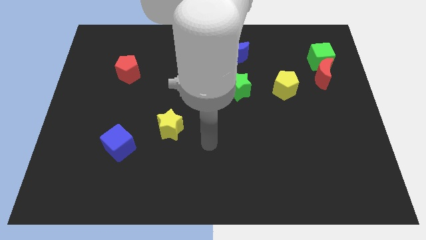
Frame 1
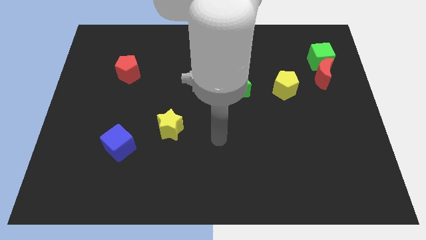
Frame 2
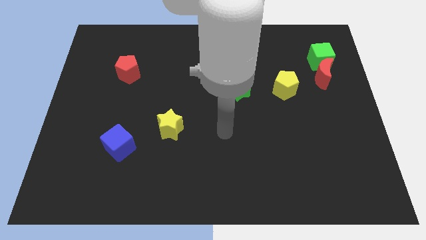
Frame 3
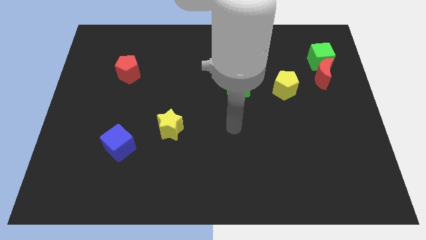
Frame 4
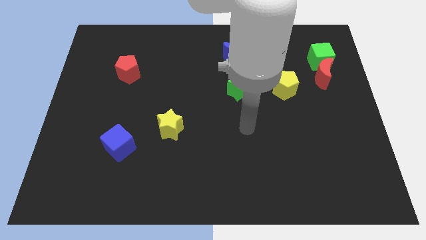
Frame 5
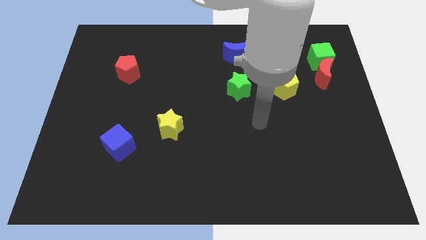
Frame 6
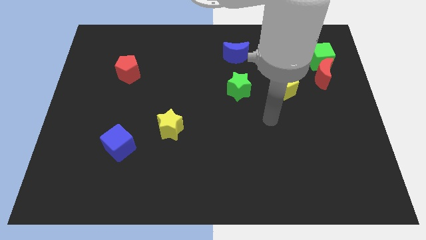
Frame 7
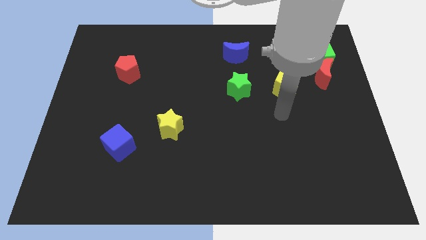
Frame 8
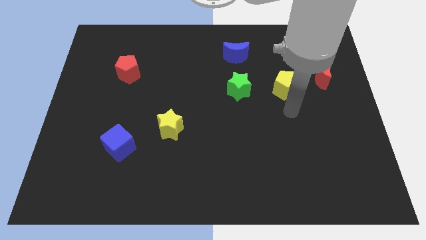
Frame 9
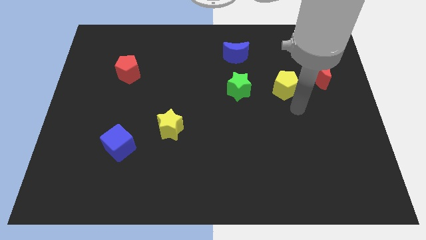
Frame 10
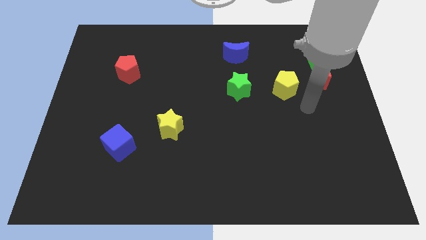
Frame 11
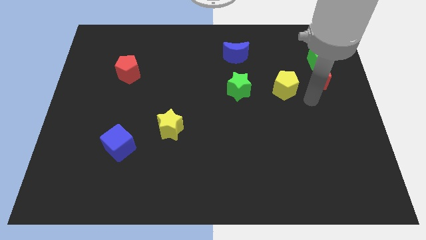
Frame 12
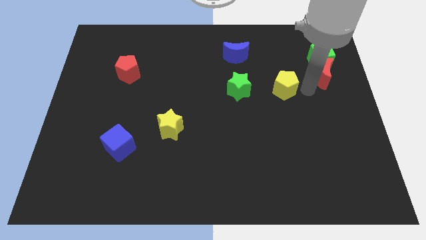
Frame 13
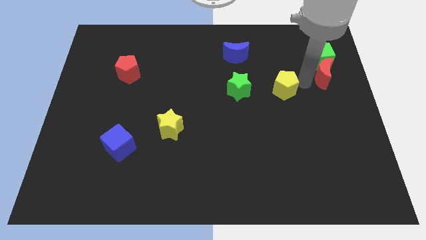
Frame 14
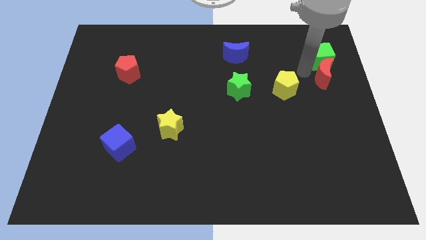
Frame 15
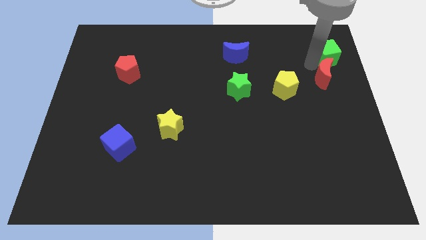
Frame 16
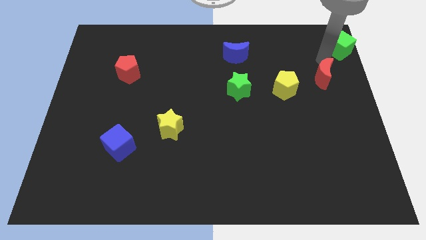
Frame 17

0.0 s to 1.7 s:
move the red moon away from the green cube

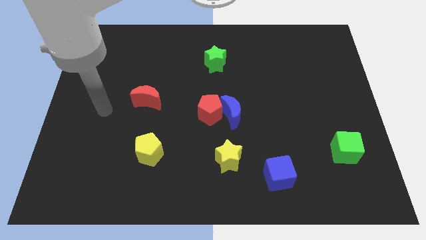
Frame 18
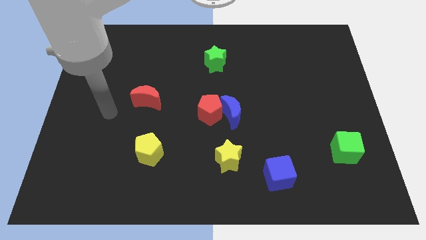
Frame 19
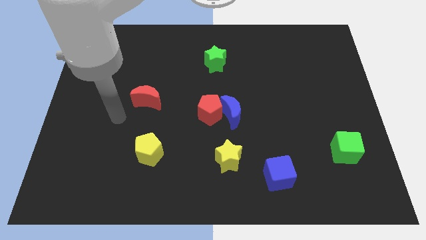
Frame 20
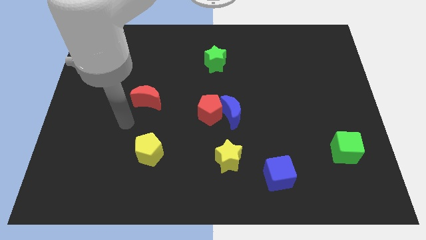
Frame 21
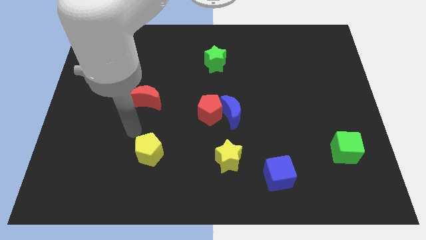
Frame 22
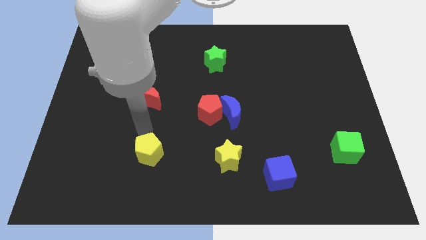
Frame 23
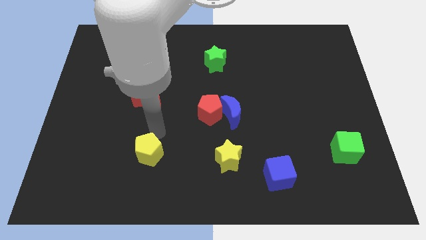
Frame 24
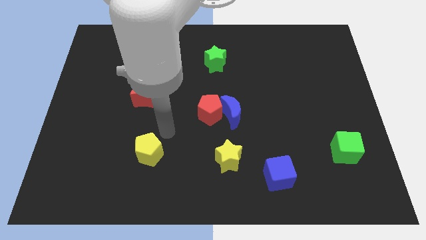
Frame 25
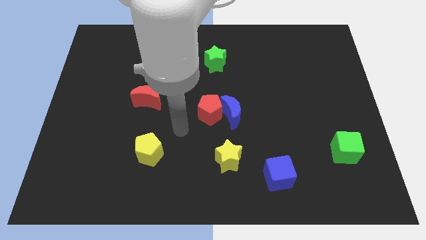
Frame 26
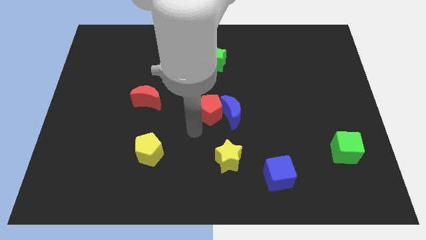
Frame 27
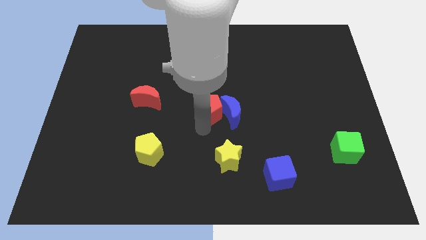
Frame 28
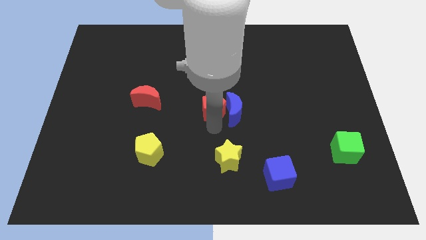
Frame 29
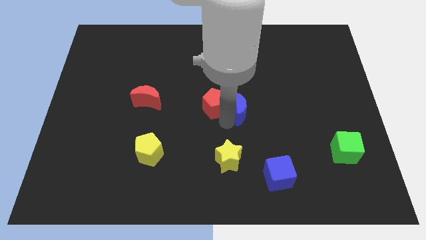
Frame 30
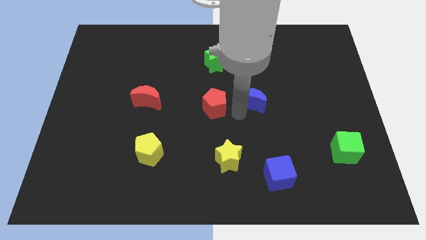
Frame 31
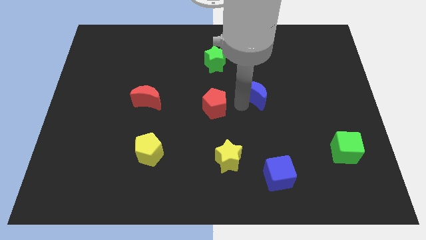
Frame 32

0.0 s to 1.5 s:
move the red pentagon away from the blue moon

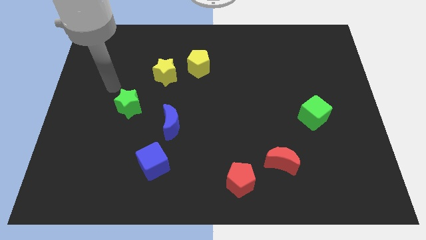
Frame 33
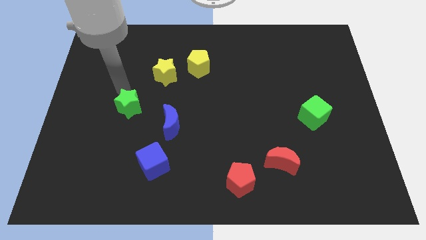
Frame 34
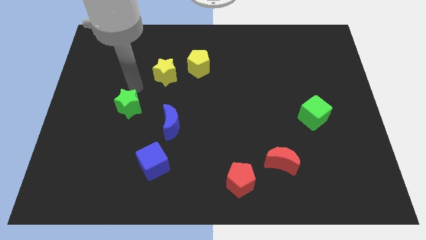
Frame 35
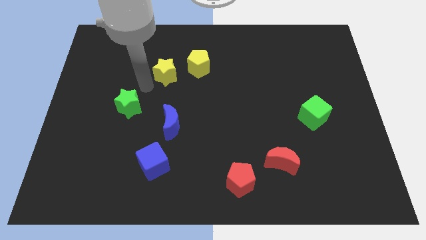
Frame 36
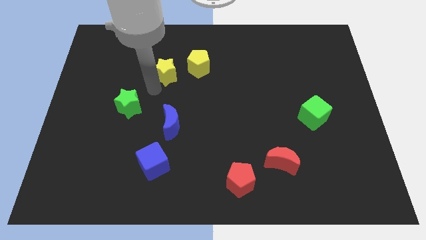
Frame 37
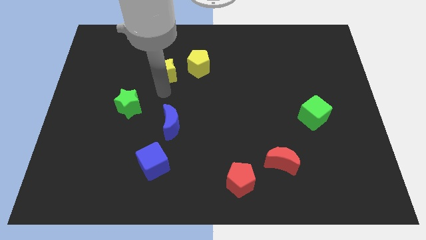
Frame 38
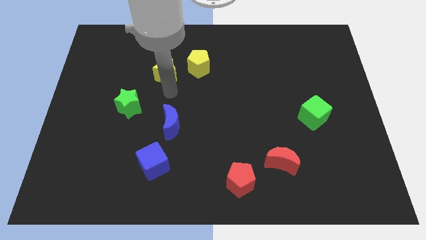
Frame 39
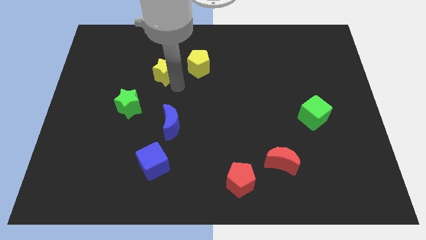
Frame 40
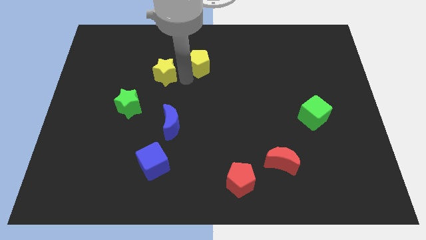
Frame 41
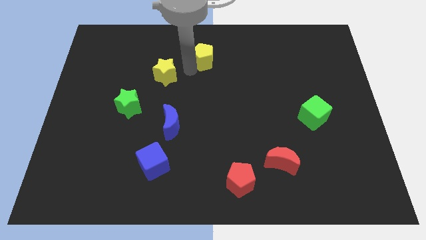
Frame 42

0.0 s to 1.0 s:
separate the yellow star from the yellow pentagon

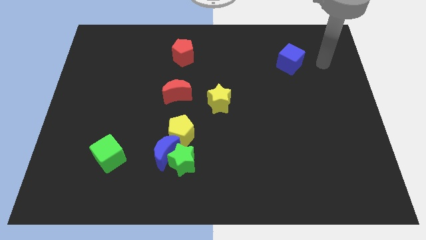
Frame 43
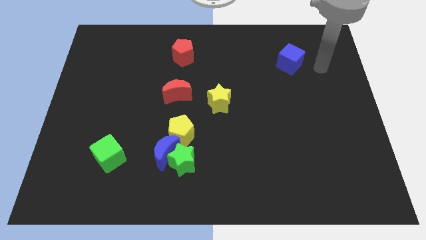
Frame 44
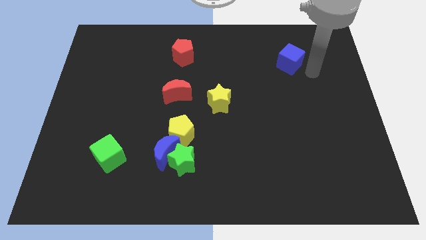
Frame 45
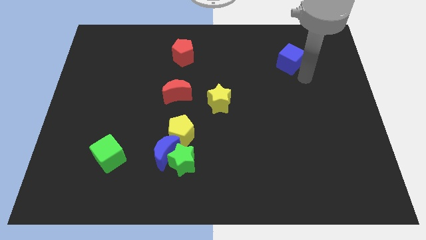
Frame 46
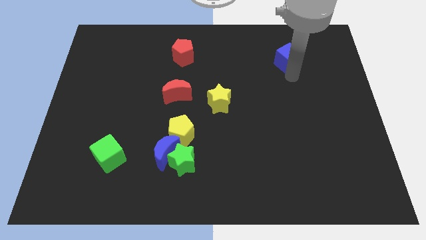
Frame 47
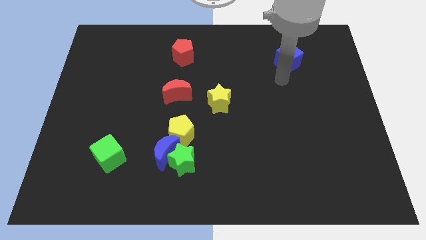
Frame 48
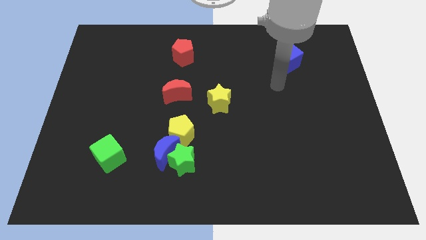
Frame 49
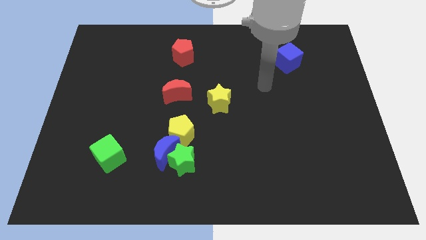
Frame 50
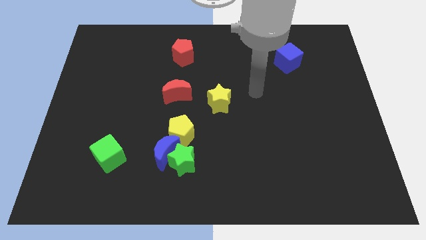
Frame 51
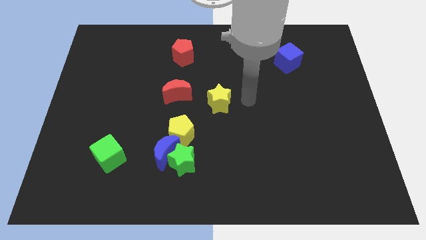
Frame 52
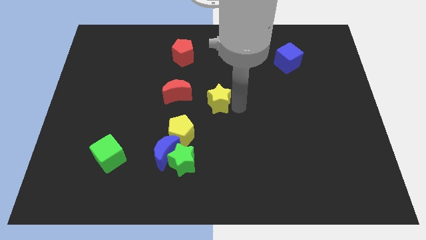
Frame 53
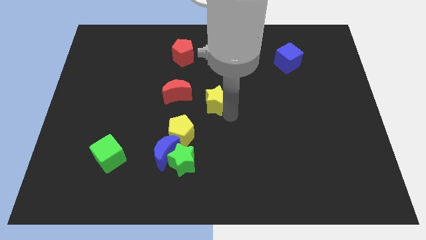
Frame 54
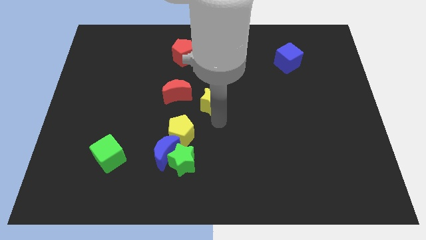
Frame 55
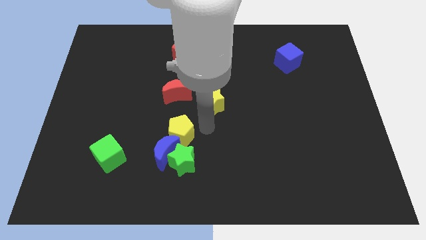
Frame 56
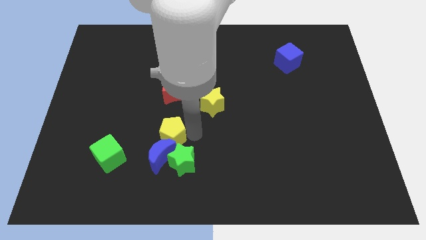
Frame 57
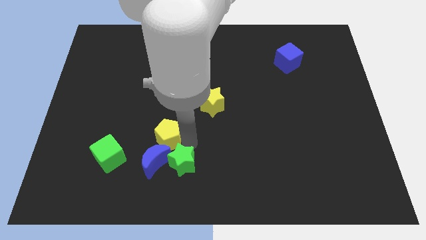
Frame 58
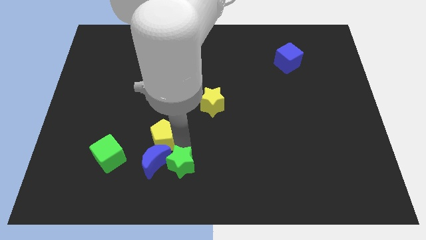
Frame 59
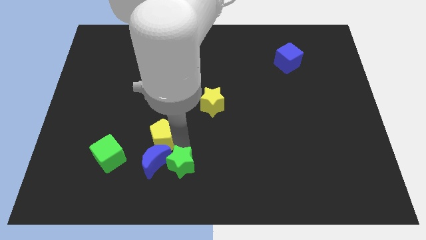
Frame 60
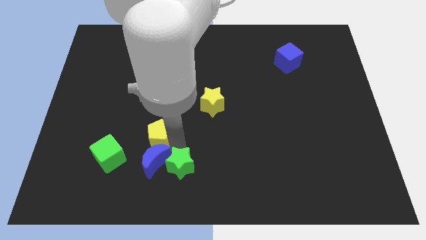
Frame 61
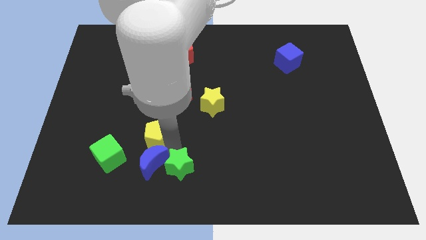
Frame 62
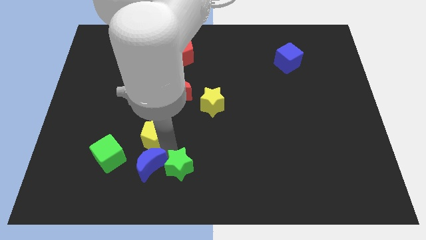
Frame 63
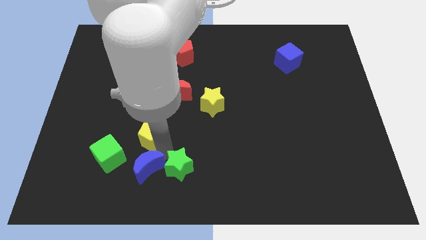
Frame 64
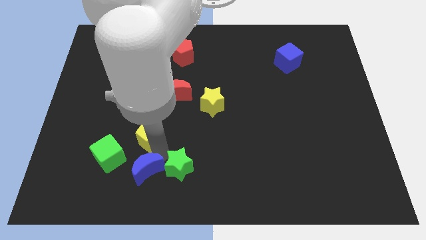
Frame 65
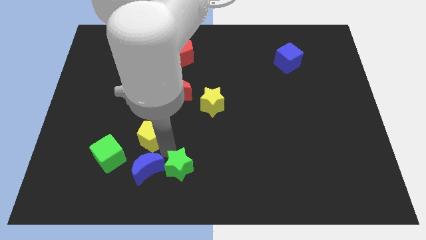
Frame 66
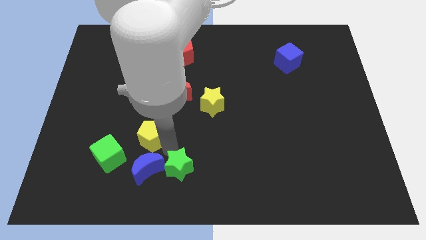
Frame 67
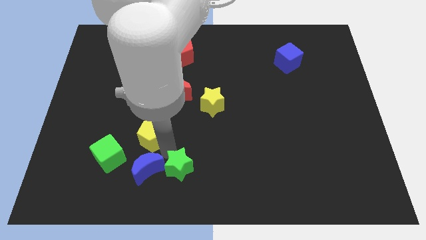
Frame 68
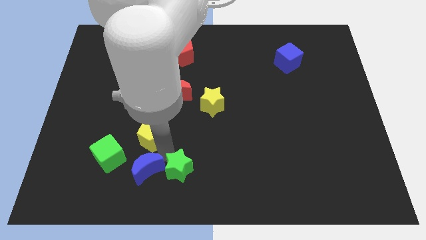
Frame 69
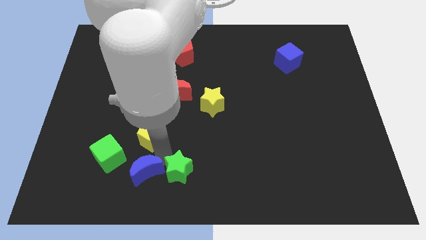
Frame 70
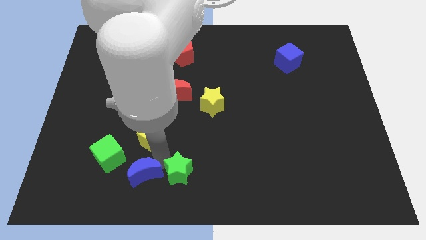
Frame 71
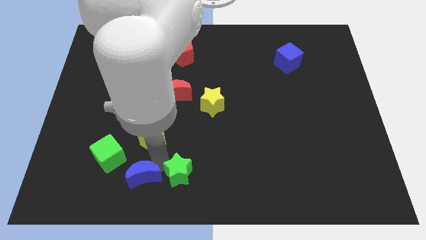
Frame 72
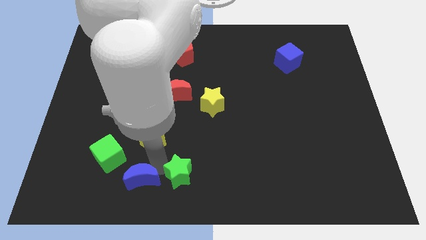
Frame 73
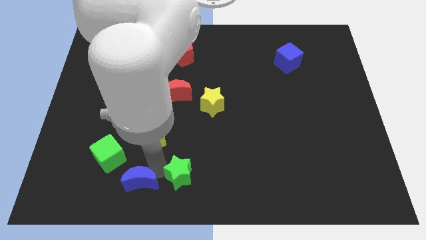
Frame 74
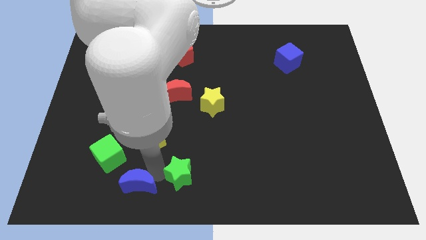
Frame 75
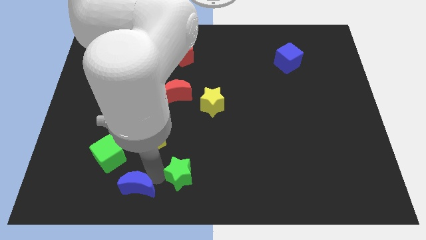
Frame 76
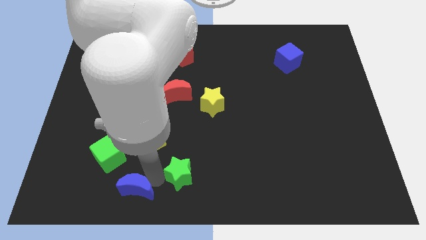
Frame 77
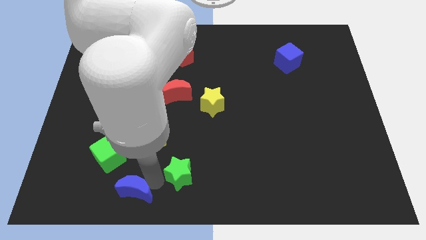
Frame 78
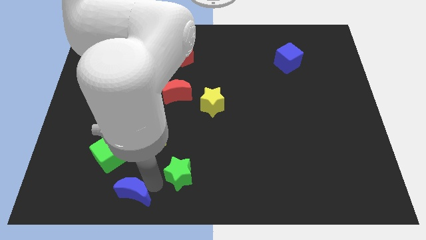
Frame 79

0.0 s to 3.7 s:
move the blue moon away from the green star and yellow pentagon

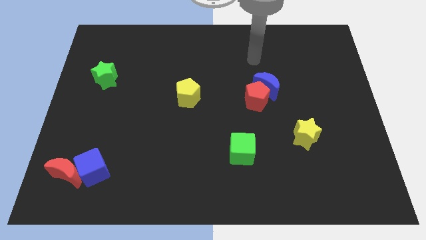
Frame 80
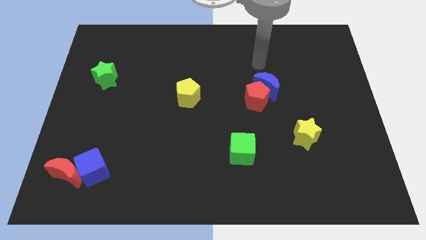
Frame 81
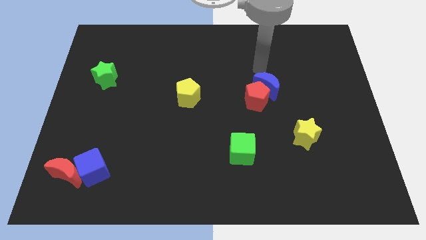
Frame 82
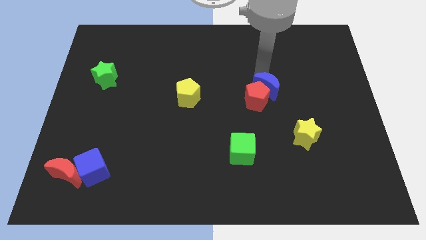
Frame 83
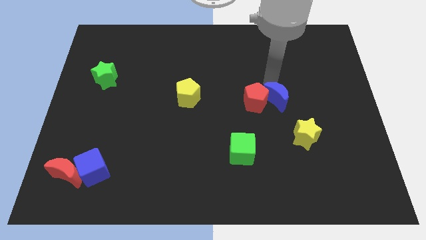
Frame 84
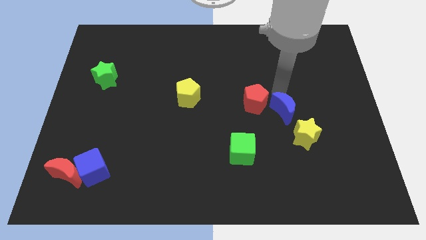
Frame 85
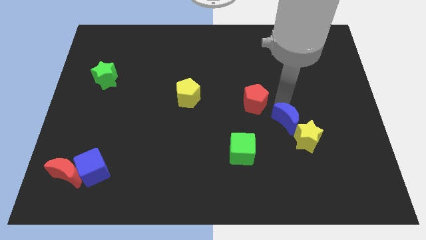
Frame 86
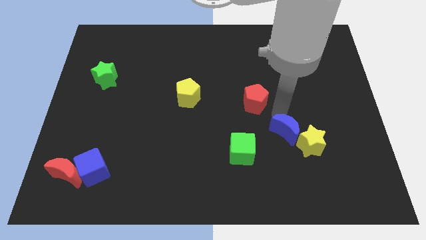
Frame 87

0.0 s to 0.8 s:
separate the red pentagon from the blue moon

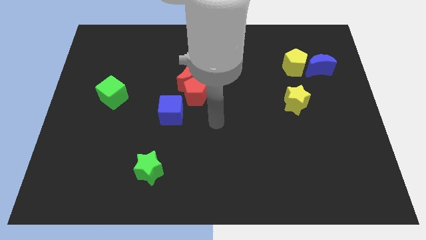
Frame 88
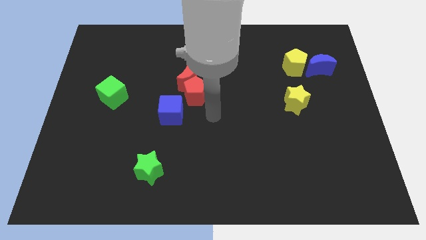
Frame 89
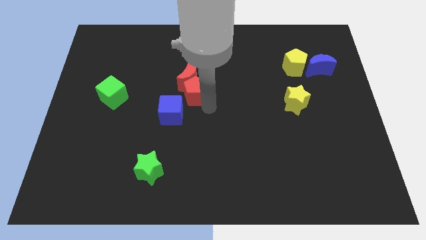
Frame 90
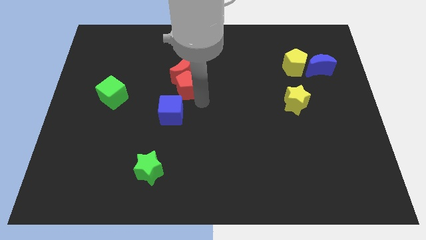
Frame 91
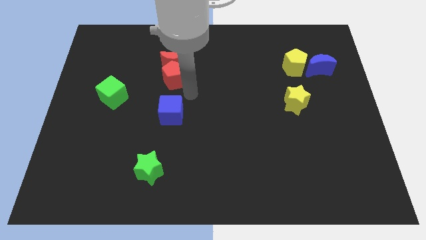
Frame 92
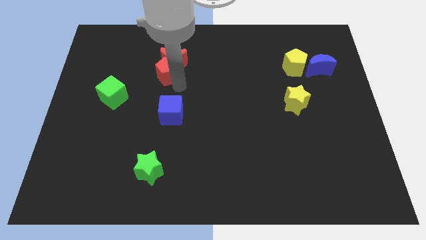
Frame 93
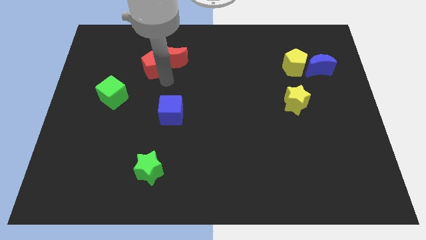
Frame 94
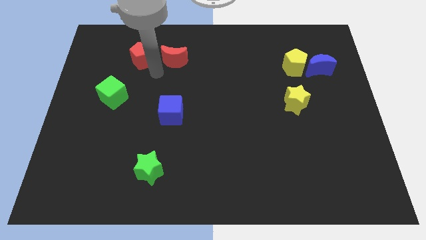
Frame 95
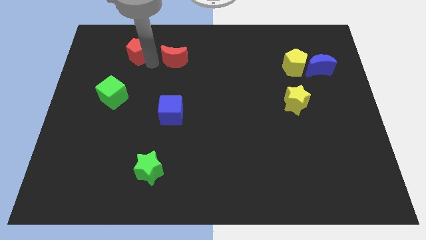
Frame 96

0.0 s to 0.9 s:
move the red moon away from the red pentagon
